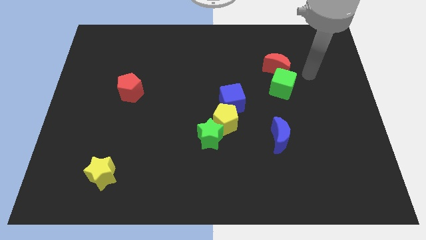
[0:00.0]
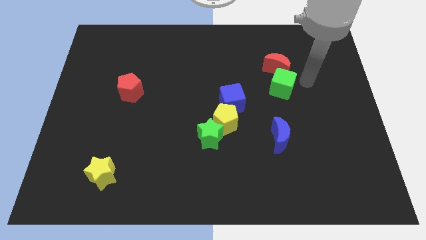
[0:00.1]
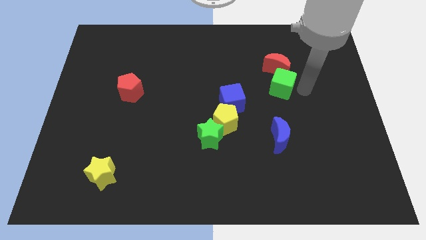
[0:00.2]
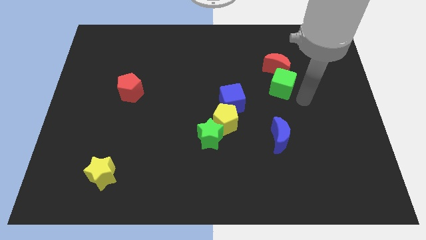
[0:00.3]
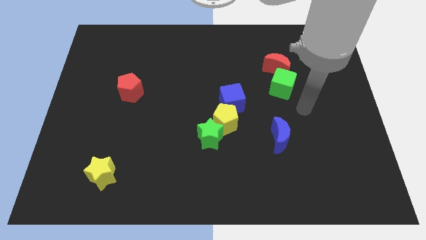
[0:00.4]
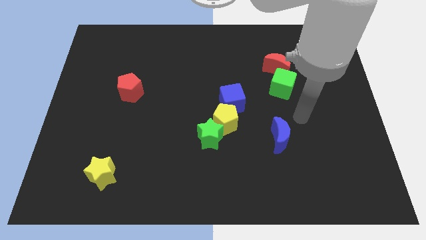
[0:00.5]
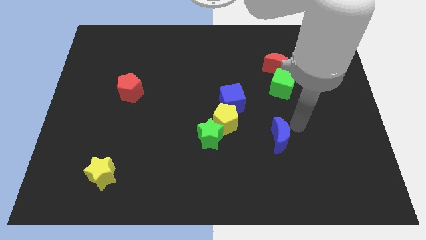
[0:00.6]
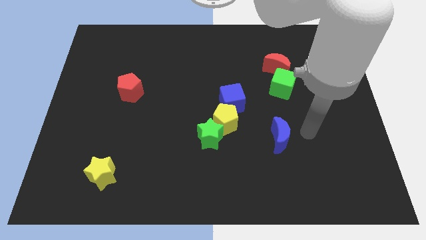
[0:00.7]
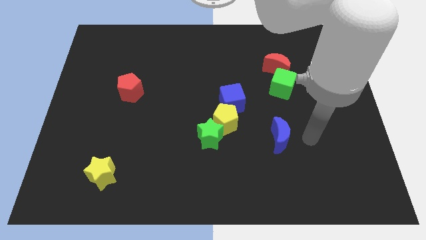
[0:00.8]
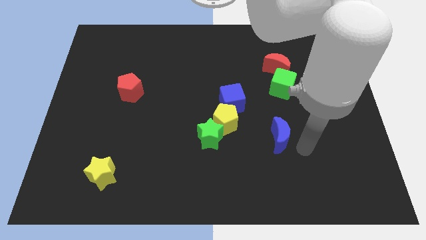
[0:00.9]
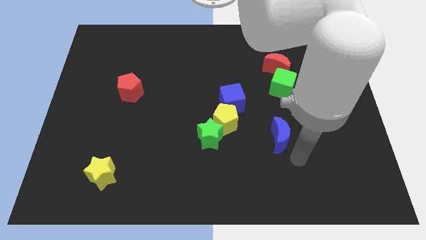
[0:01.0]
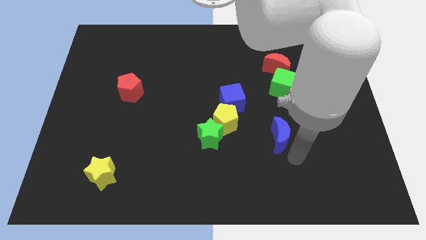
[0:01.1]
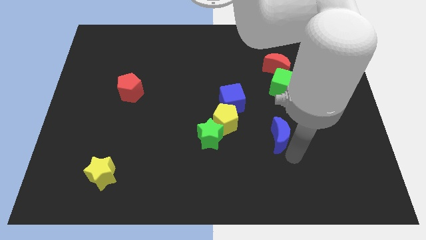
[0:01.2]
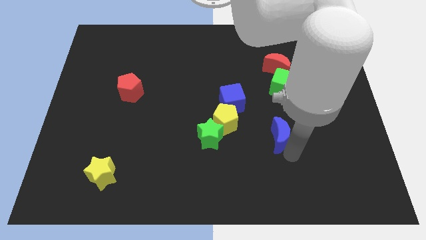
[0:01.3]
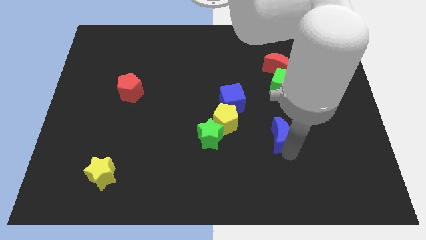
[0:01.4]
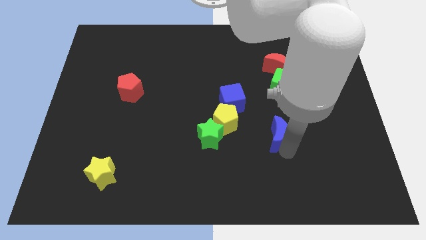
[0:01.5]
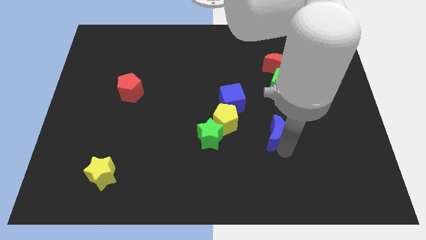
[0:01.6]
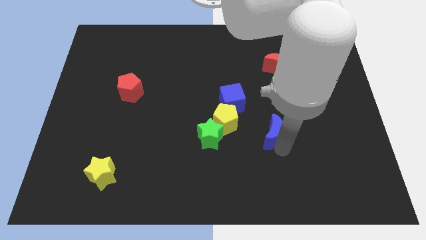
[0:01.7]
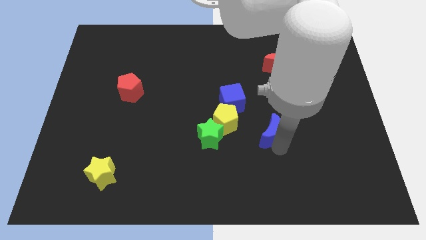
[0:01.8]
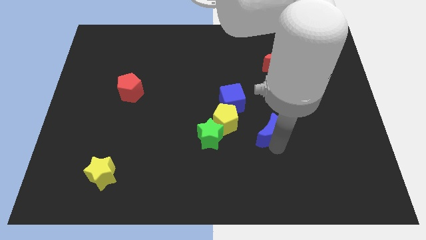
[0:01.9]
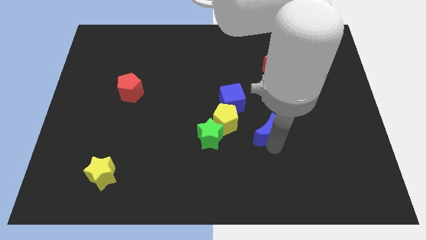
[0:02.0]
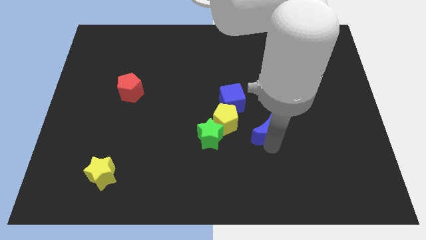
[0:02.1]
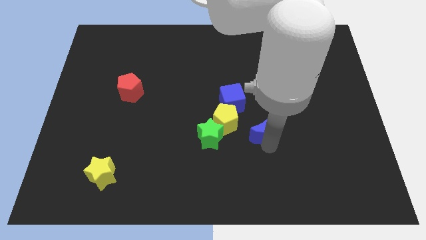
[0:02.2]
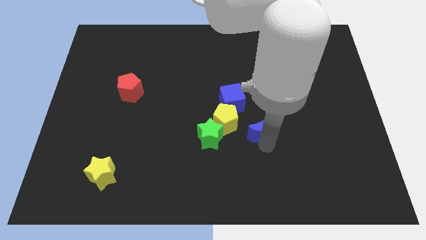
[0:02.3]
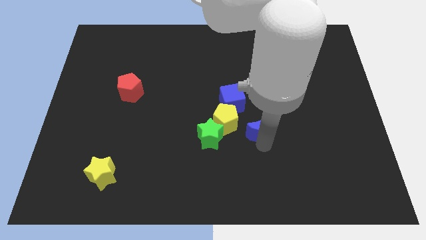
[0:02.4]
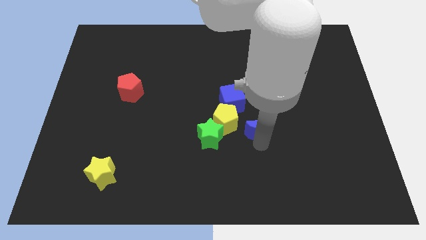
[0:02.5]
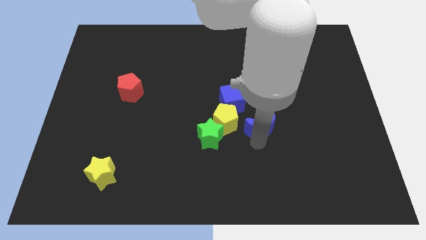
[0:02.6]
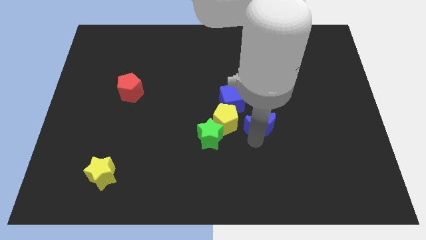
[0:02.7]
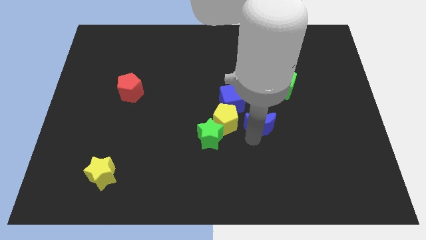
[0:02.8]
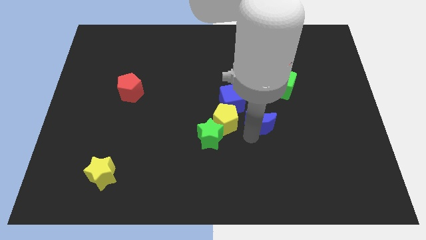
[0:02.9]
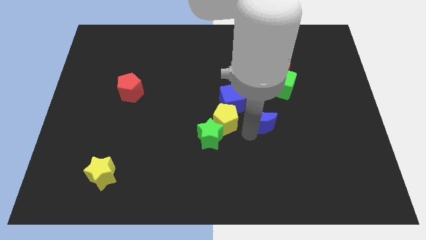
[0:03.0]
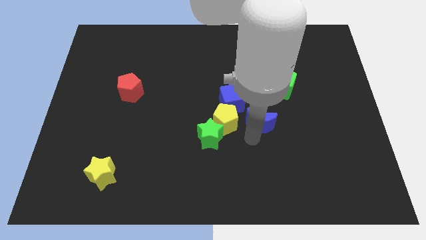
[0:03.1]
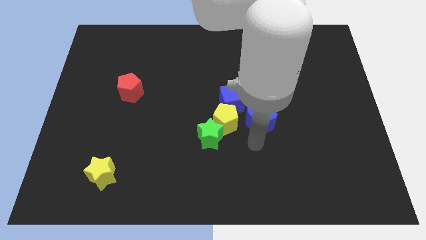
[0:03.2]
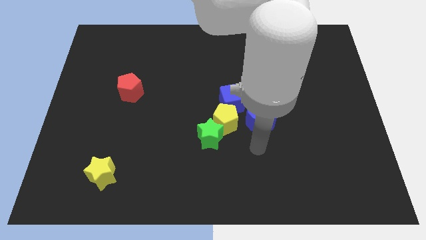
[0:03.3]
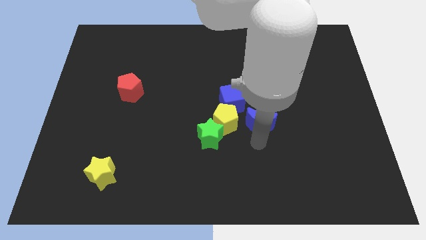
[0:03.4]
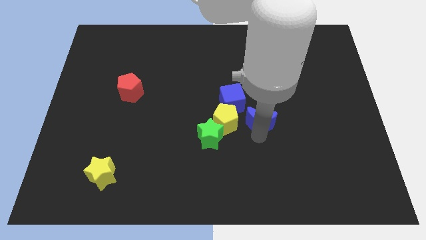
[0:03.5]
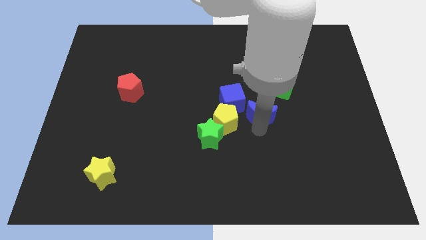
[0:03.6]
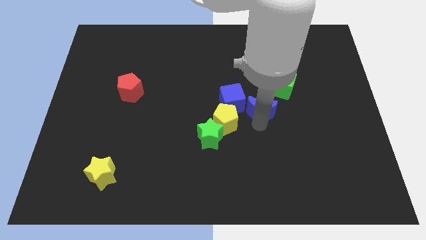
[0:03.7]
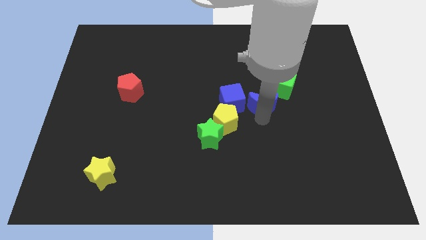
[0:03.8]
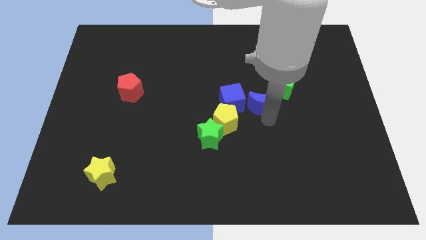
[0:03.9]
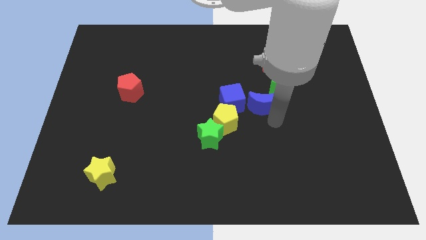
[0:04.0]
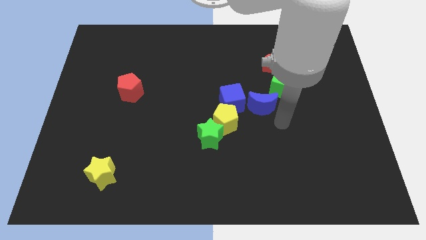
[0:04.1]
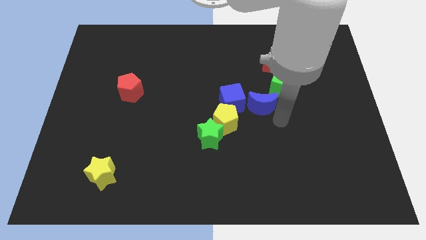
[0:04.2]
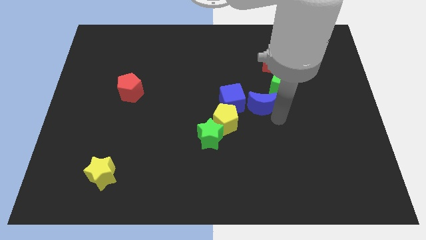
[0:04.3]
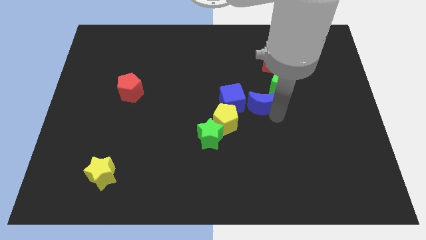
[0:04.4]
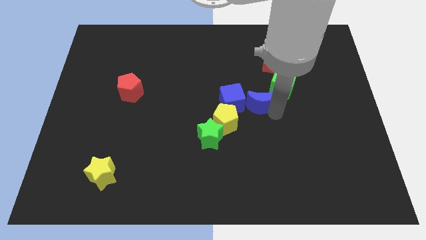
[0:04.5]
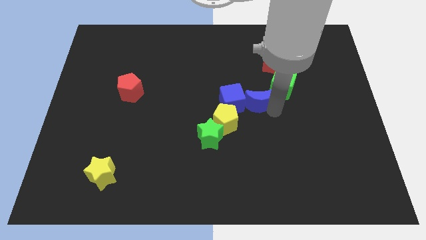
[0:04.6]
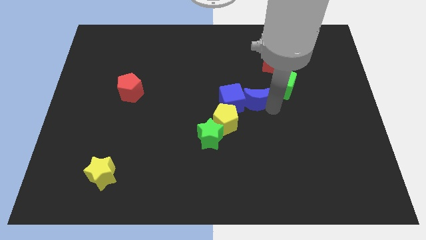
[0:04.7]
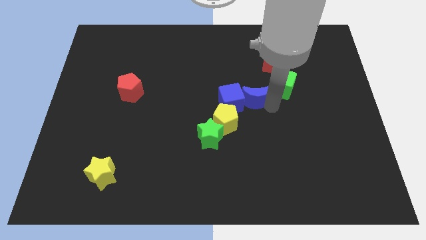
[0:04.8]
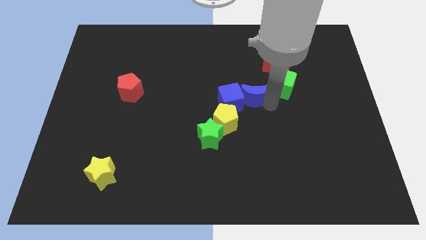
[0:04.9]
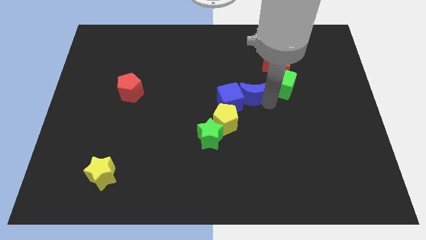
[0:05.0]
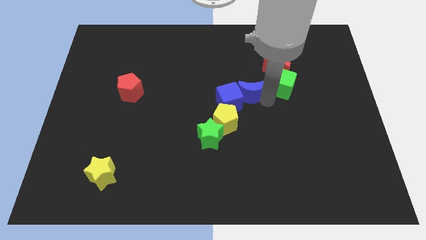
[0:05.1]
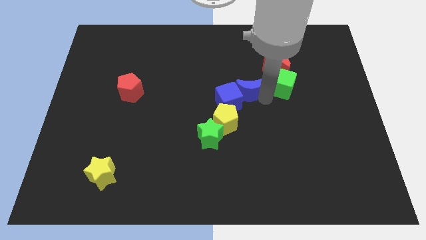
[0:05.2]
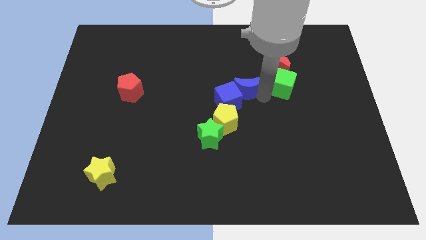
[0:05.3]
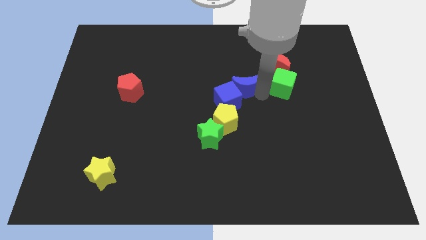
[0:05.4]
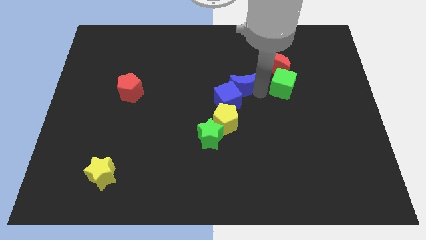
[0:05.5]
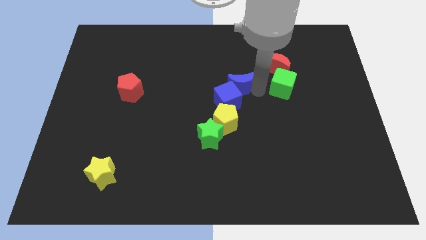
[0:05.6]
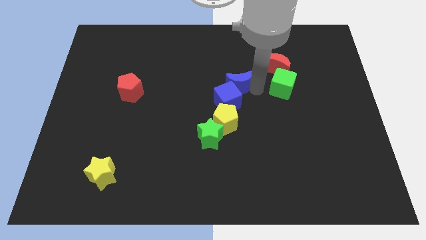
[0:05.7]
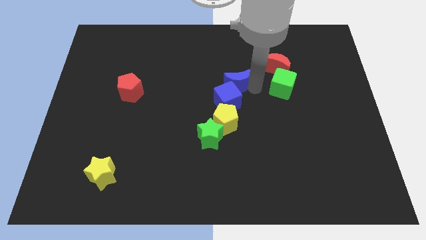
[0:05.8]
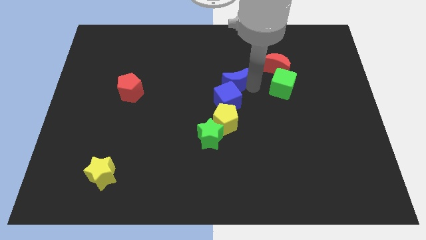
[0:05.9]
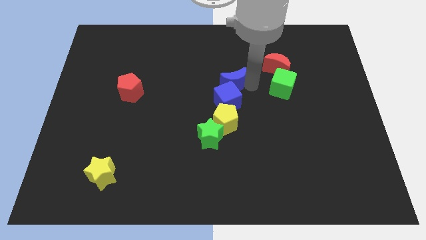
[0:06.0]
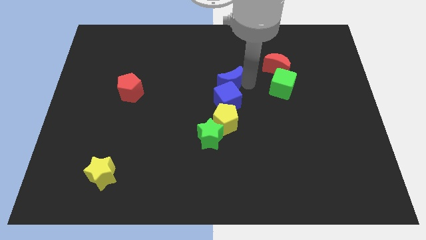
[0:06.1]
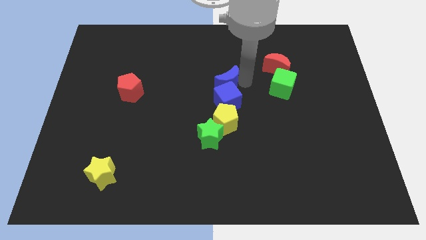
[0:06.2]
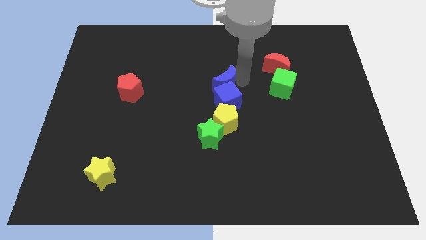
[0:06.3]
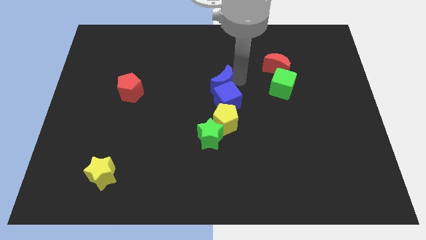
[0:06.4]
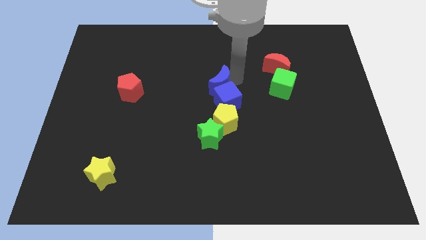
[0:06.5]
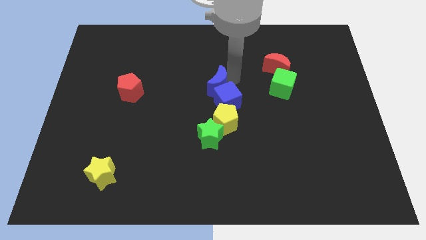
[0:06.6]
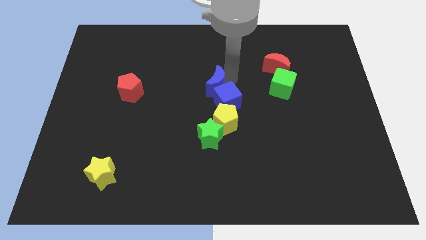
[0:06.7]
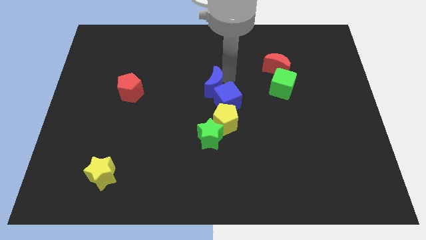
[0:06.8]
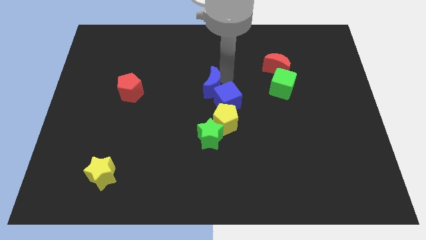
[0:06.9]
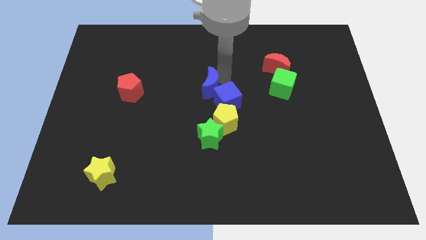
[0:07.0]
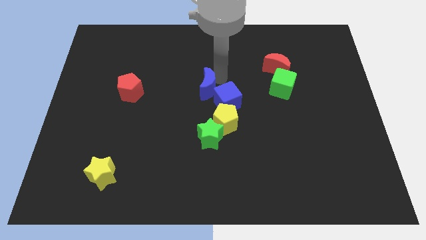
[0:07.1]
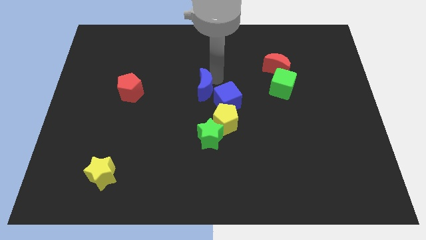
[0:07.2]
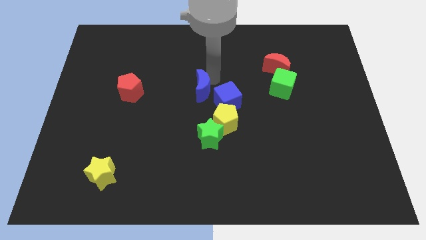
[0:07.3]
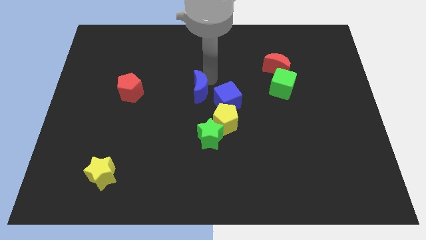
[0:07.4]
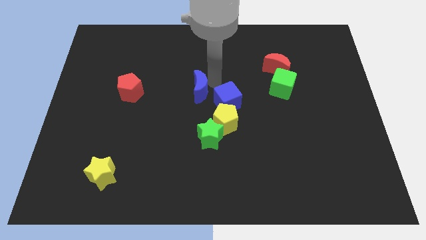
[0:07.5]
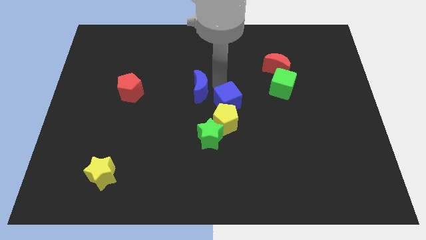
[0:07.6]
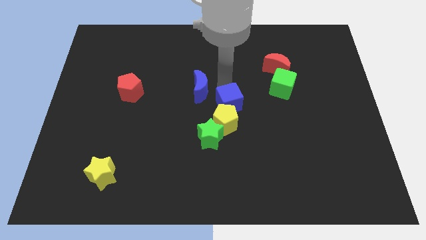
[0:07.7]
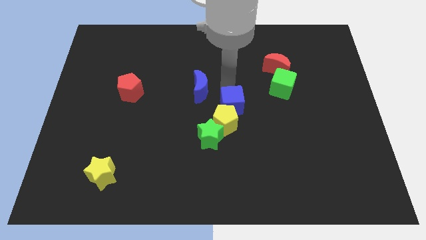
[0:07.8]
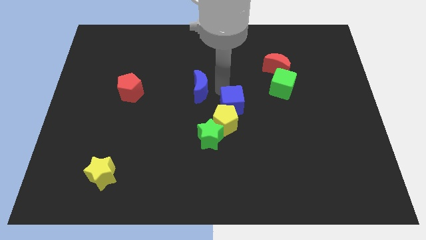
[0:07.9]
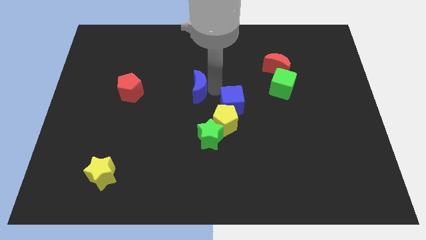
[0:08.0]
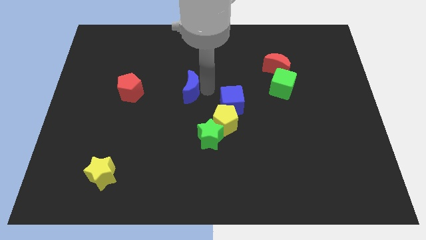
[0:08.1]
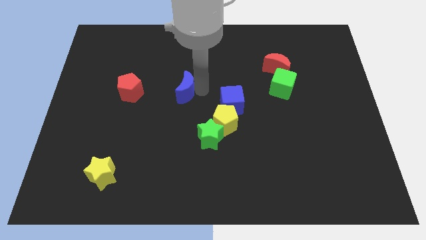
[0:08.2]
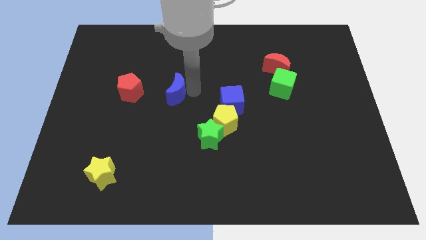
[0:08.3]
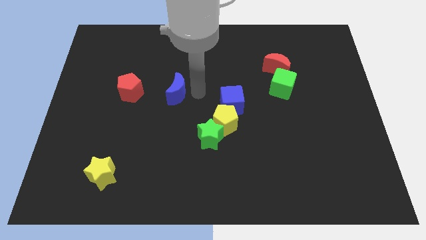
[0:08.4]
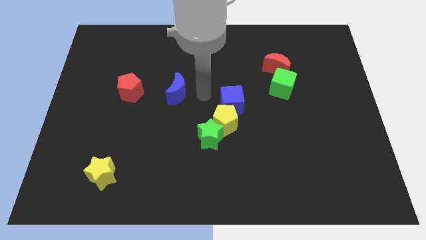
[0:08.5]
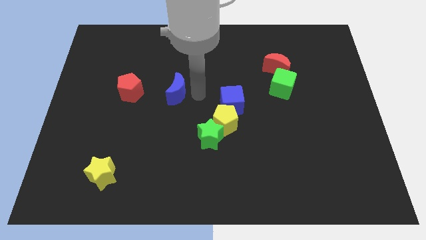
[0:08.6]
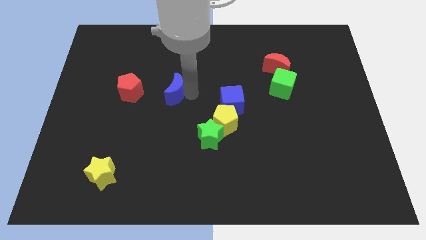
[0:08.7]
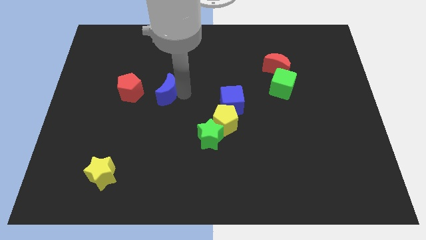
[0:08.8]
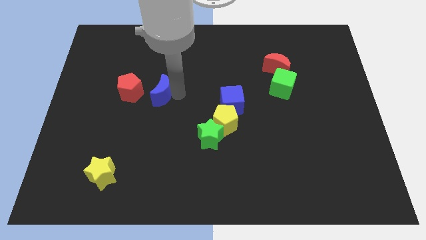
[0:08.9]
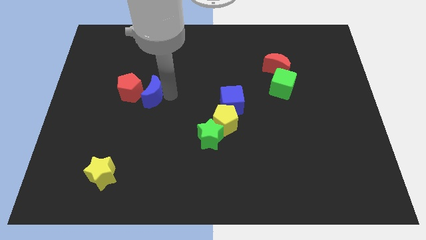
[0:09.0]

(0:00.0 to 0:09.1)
put the blue moon towards the red pentagon
